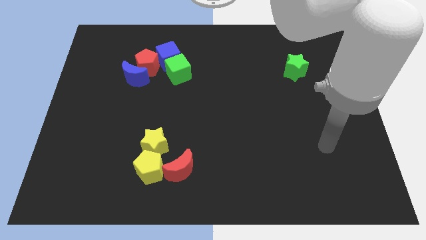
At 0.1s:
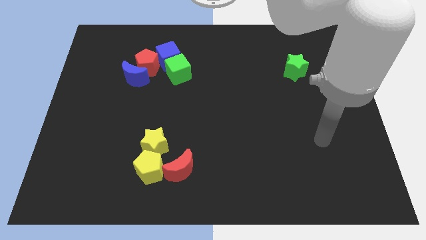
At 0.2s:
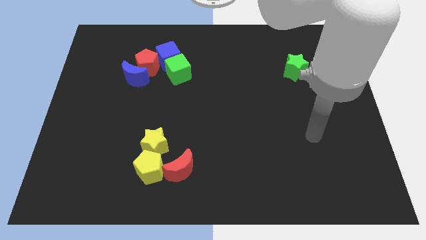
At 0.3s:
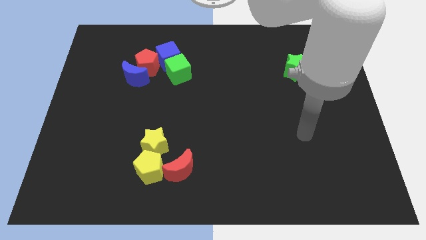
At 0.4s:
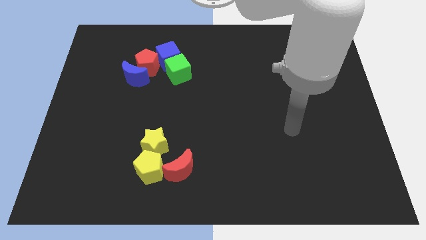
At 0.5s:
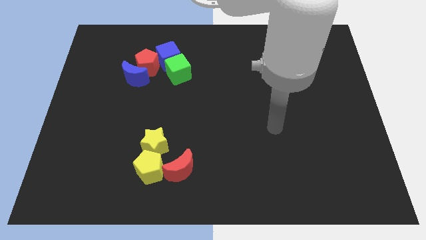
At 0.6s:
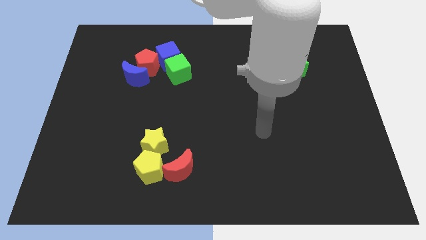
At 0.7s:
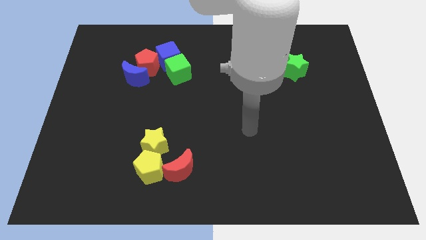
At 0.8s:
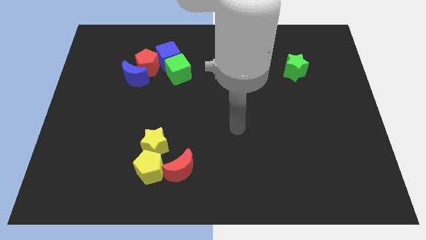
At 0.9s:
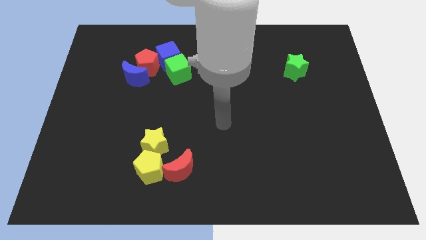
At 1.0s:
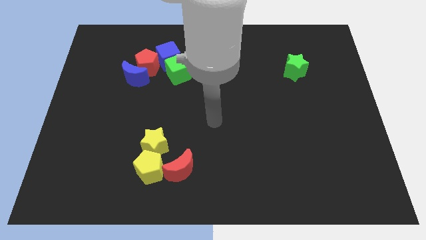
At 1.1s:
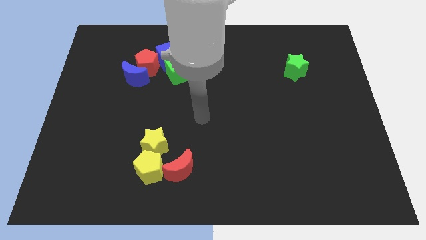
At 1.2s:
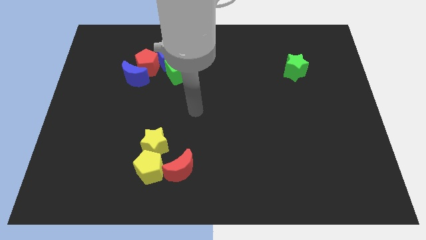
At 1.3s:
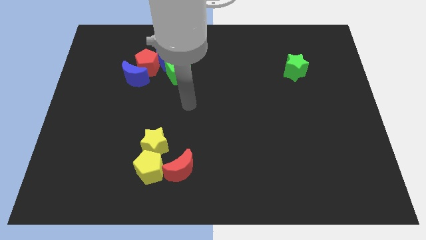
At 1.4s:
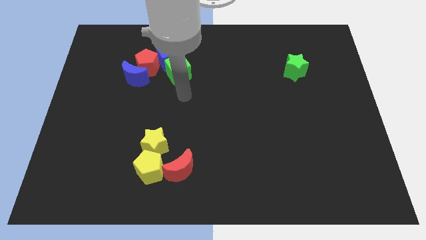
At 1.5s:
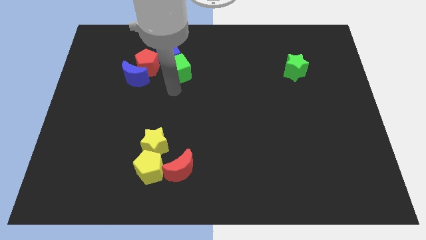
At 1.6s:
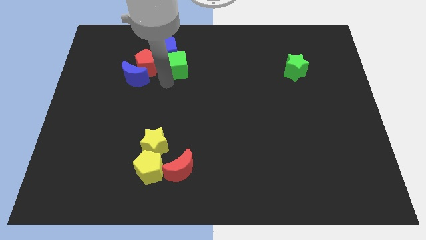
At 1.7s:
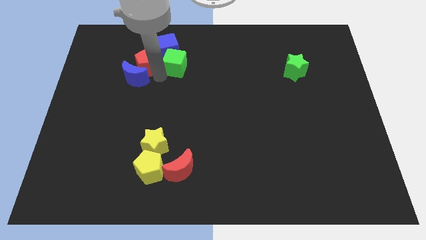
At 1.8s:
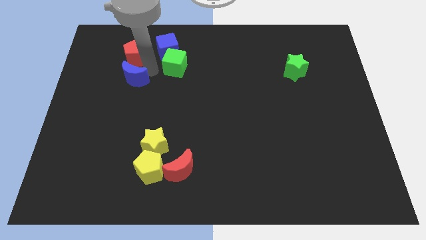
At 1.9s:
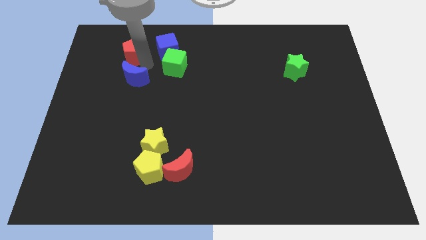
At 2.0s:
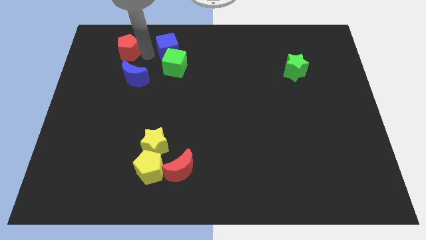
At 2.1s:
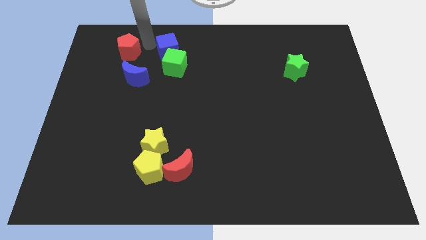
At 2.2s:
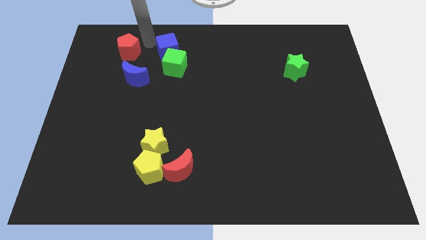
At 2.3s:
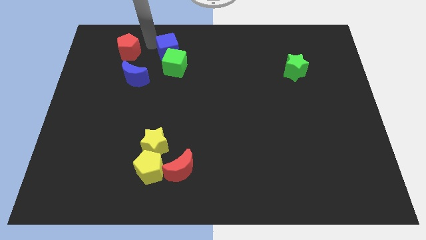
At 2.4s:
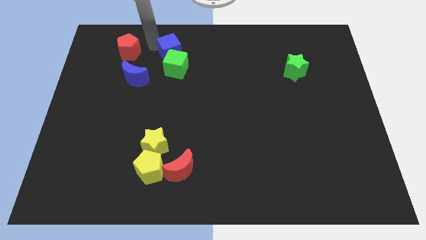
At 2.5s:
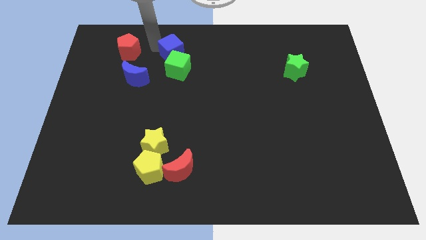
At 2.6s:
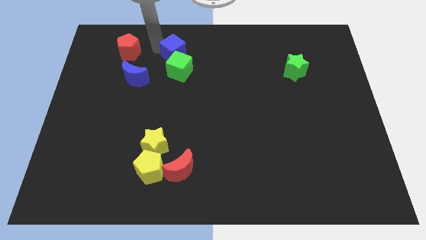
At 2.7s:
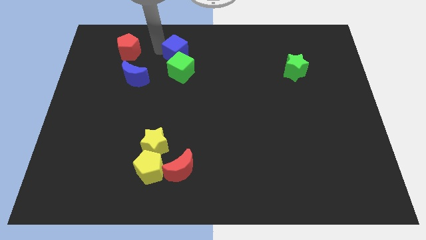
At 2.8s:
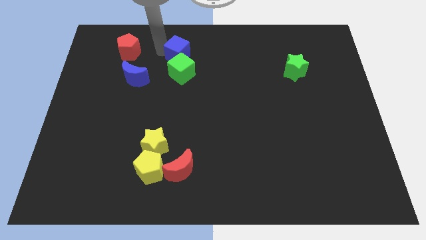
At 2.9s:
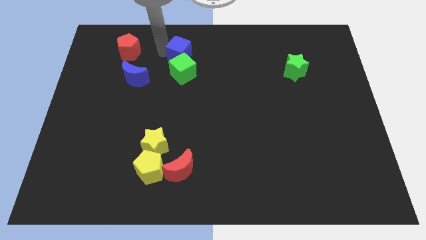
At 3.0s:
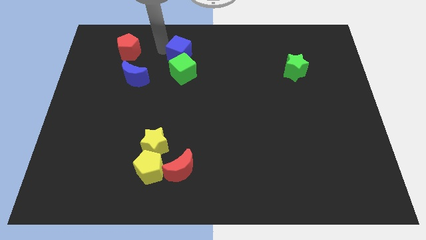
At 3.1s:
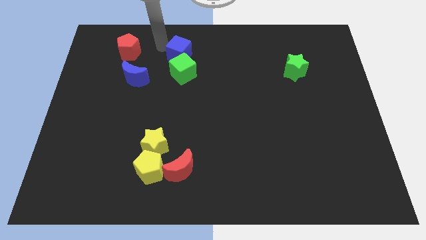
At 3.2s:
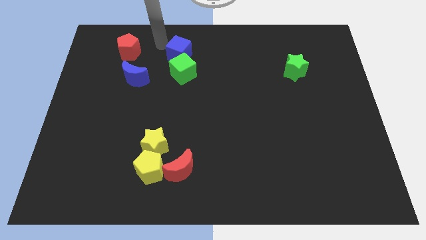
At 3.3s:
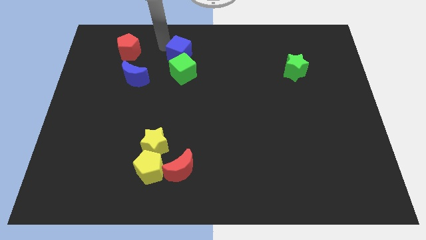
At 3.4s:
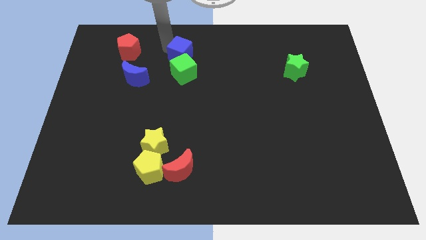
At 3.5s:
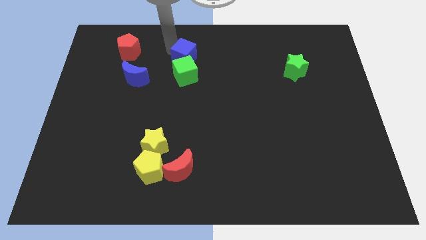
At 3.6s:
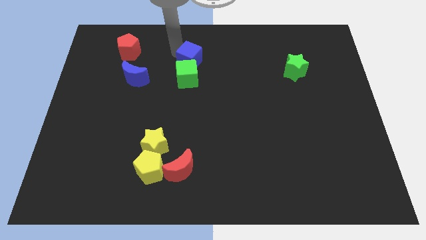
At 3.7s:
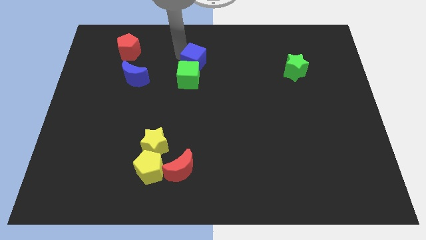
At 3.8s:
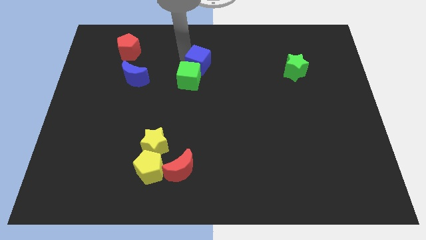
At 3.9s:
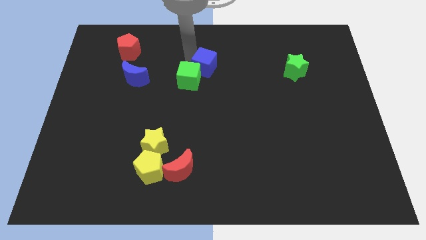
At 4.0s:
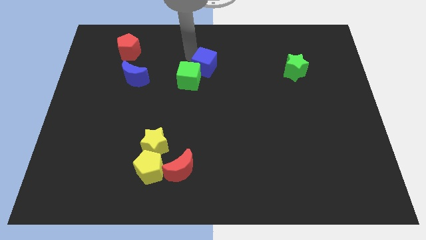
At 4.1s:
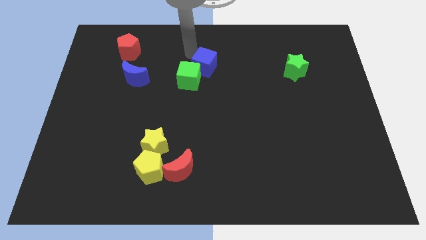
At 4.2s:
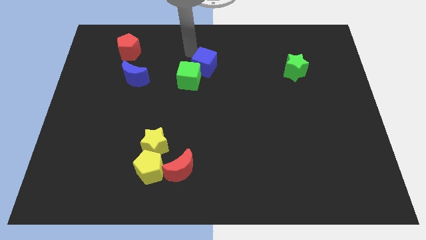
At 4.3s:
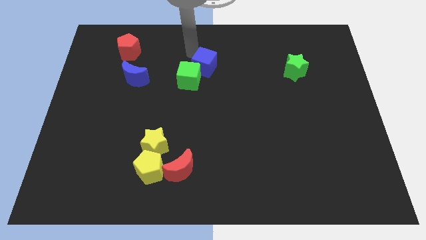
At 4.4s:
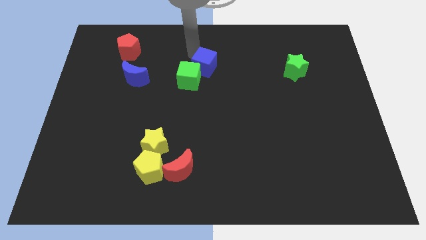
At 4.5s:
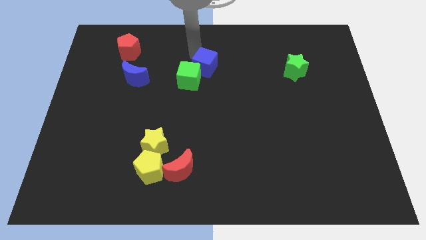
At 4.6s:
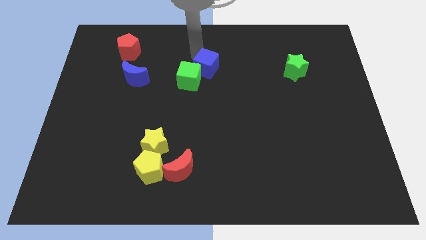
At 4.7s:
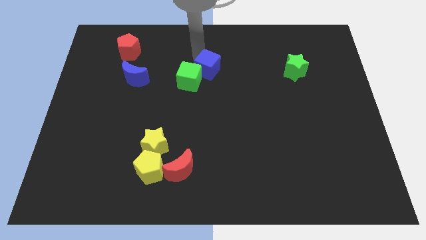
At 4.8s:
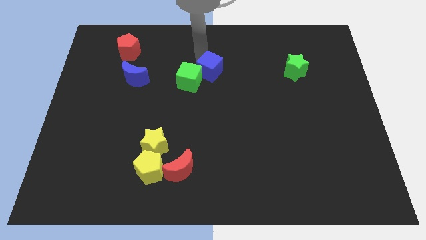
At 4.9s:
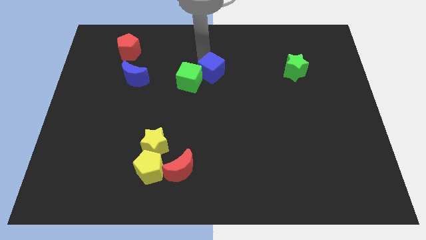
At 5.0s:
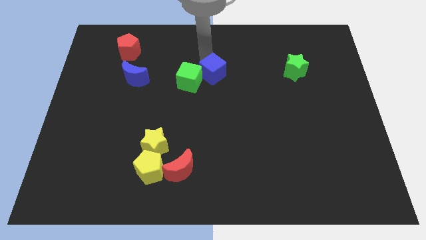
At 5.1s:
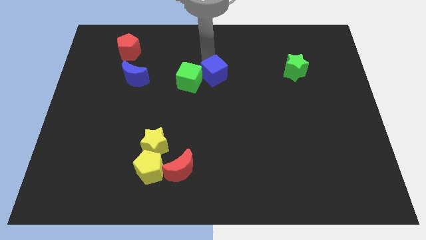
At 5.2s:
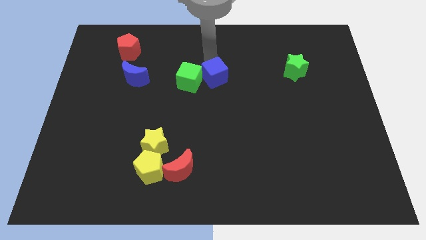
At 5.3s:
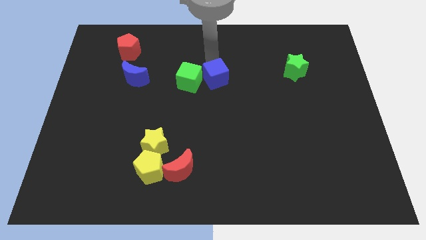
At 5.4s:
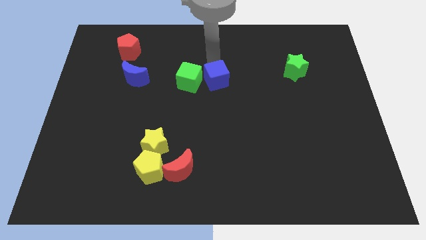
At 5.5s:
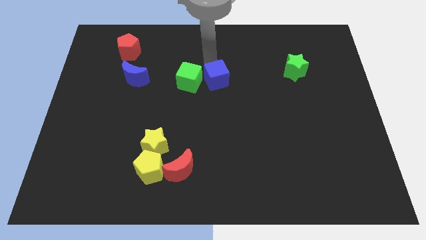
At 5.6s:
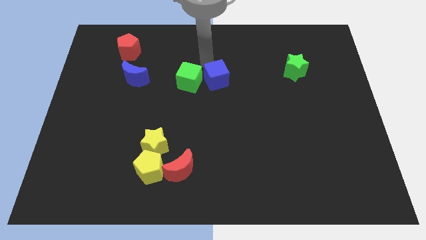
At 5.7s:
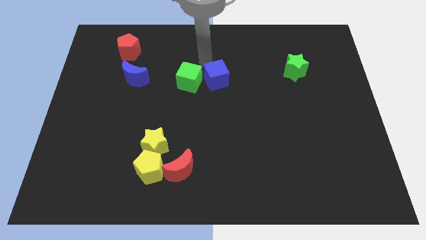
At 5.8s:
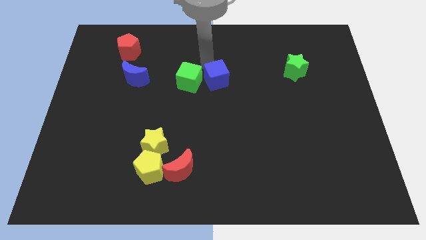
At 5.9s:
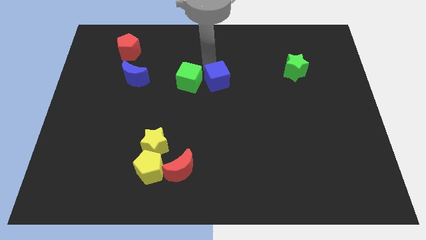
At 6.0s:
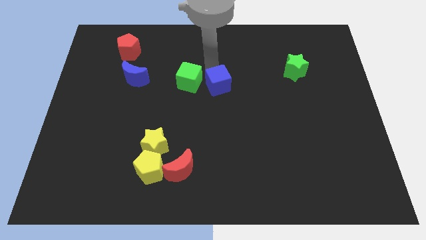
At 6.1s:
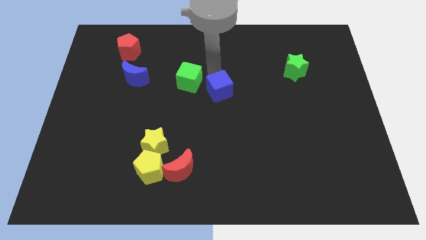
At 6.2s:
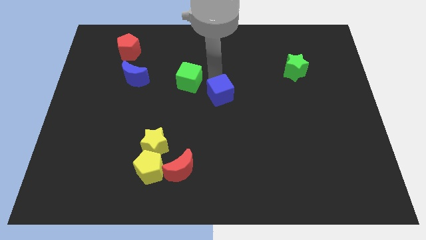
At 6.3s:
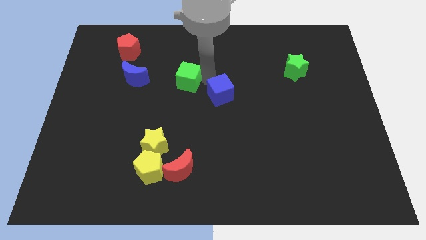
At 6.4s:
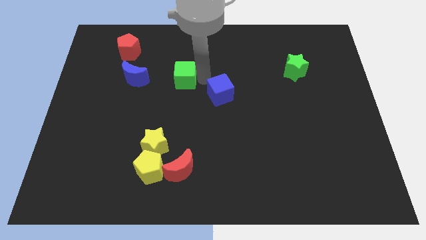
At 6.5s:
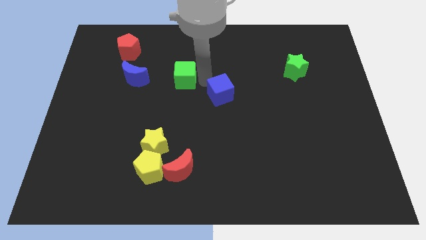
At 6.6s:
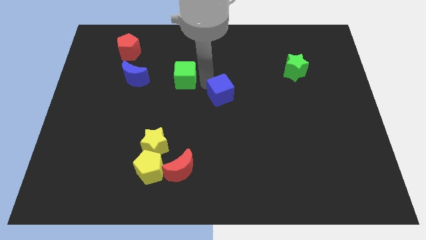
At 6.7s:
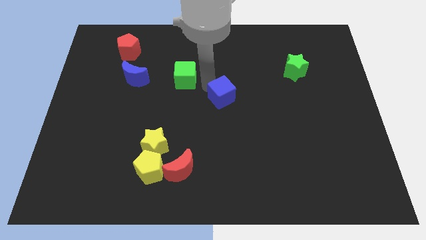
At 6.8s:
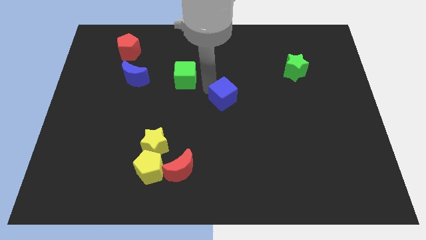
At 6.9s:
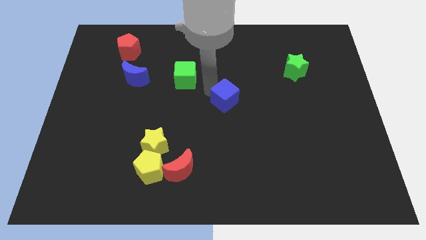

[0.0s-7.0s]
move the blue cube downwards and then right

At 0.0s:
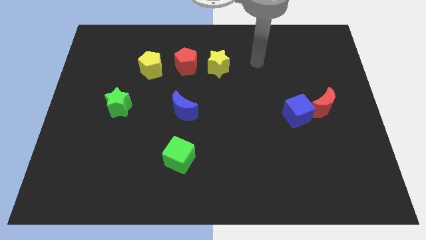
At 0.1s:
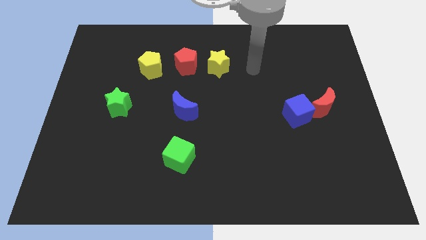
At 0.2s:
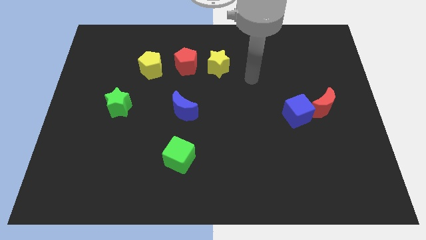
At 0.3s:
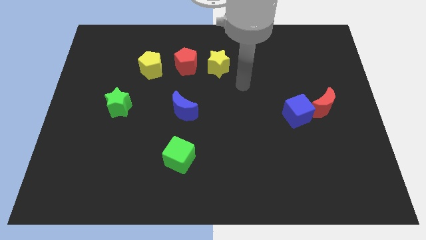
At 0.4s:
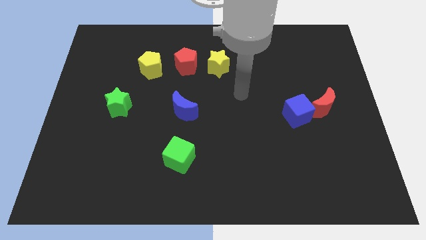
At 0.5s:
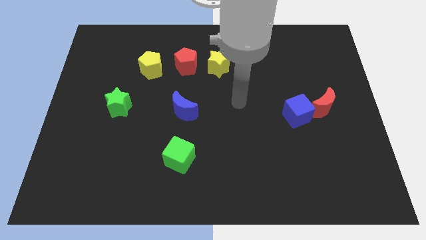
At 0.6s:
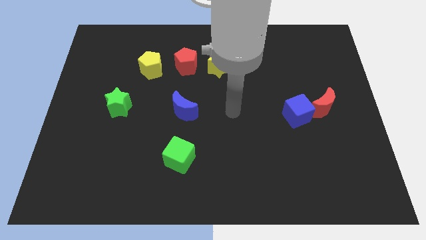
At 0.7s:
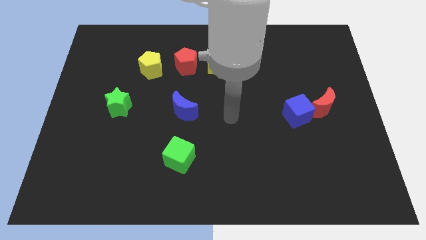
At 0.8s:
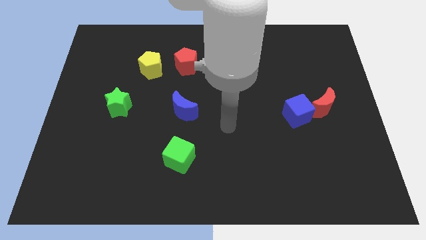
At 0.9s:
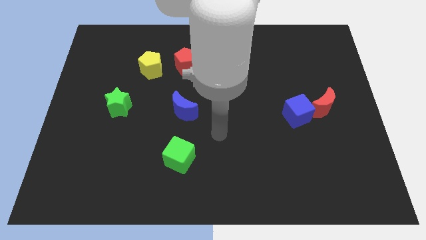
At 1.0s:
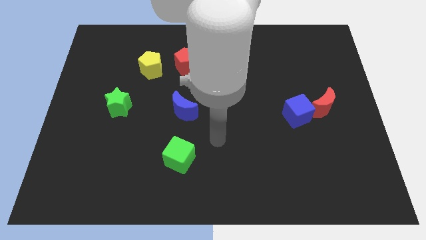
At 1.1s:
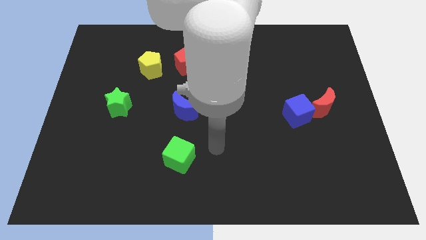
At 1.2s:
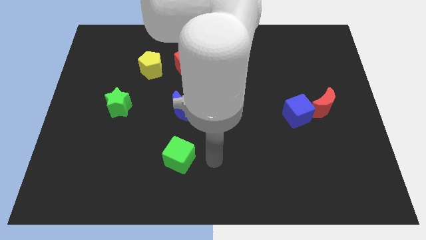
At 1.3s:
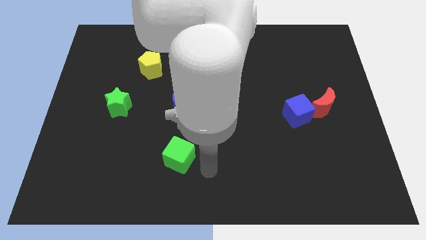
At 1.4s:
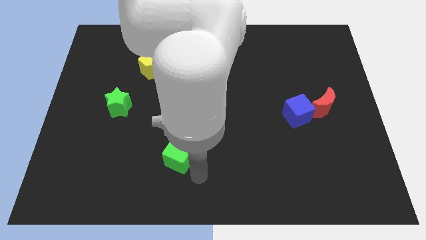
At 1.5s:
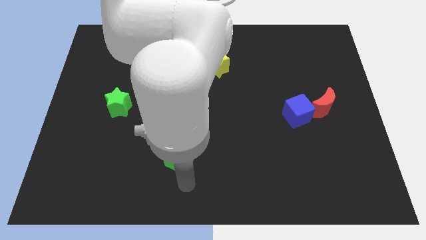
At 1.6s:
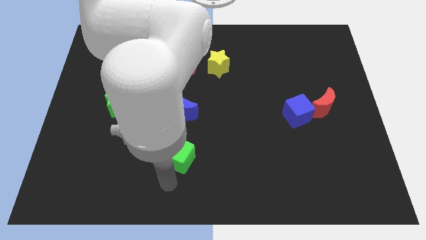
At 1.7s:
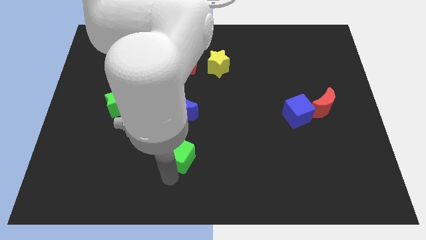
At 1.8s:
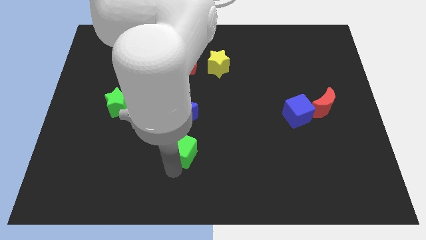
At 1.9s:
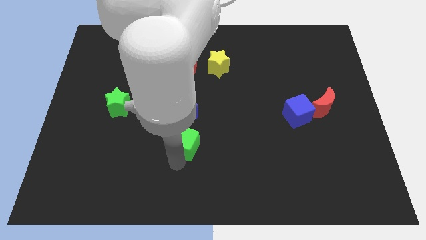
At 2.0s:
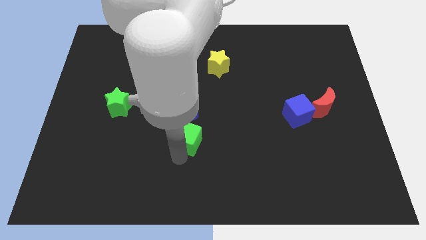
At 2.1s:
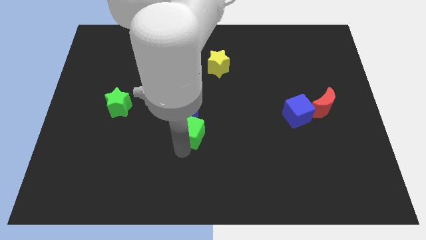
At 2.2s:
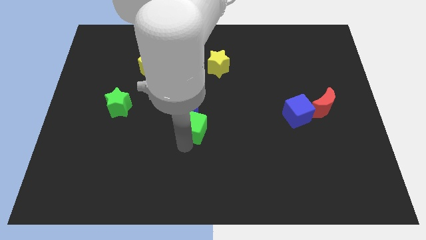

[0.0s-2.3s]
slightly push the green cube upwards
